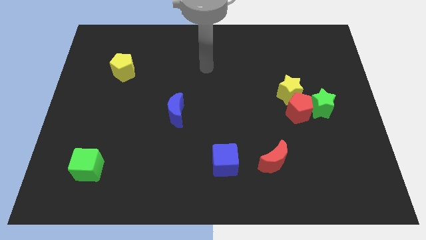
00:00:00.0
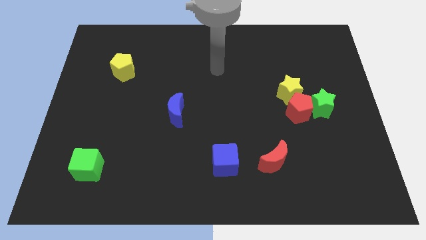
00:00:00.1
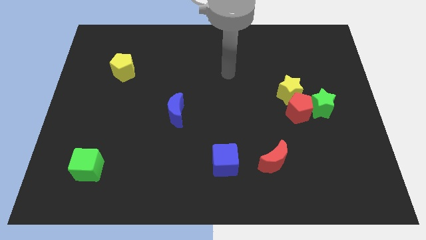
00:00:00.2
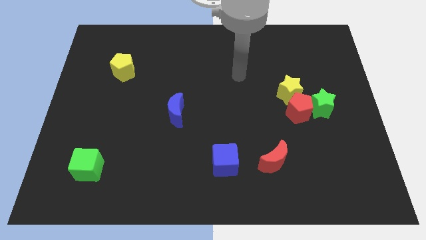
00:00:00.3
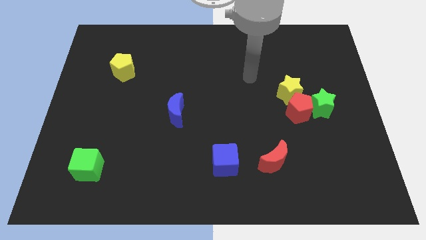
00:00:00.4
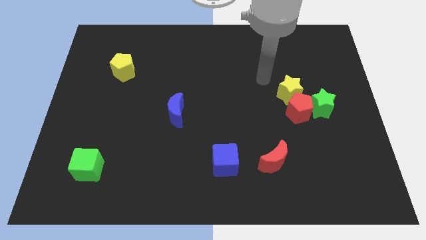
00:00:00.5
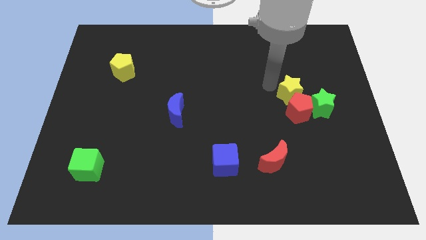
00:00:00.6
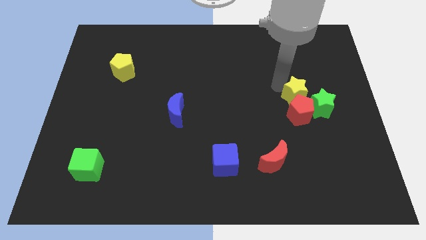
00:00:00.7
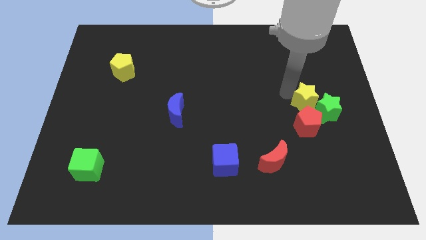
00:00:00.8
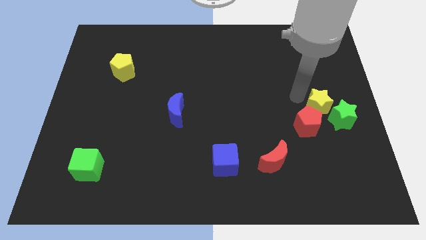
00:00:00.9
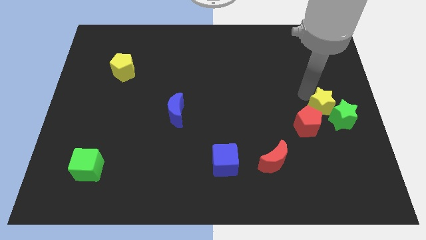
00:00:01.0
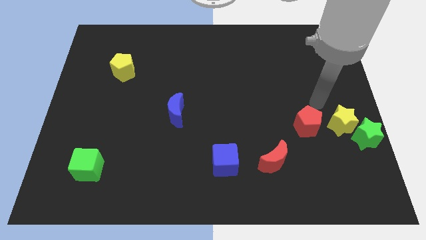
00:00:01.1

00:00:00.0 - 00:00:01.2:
pull the red pentagon apart from the green star and yellow star

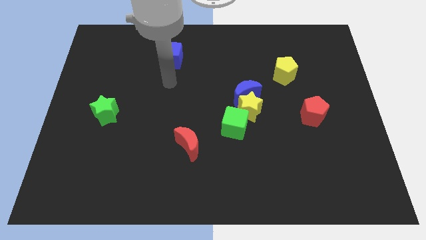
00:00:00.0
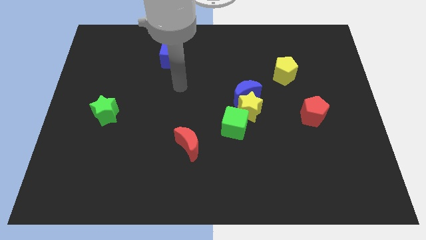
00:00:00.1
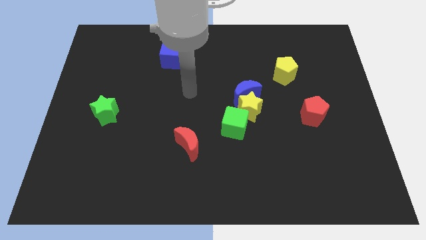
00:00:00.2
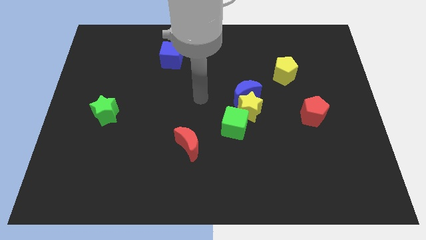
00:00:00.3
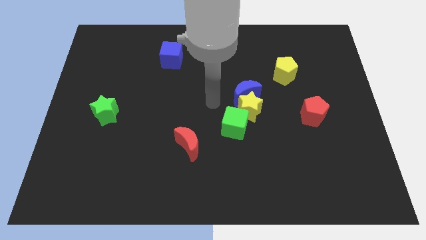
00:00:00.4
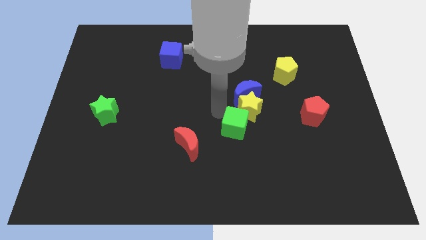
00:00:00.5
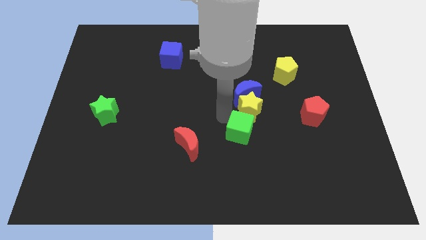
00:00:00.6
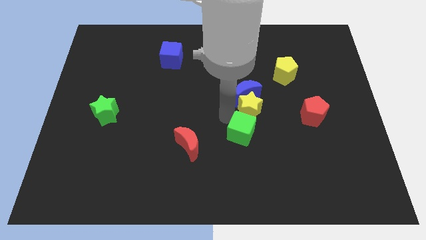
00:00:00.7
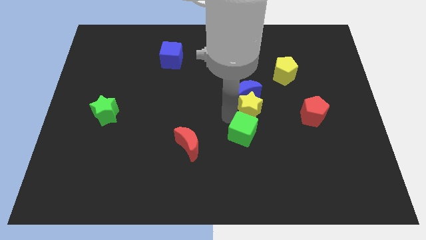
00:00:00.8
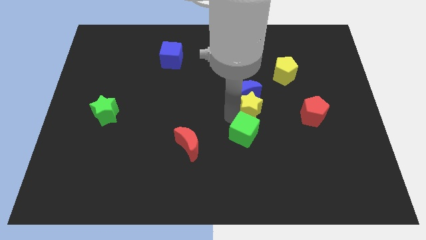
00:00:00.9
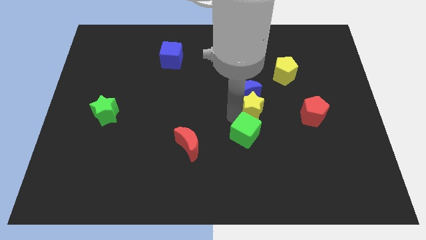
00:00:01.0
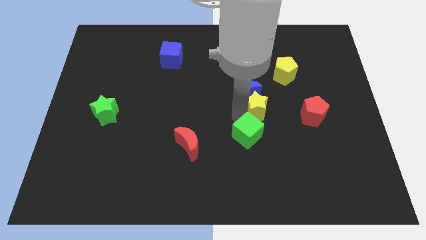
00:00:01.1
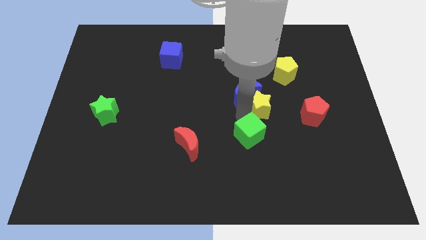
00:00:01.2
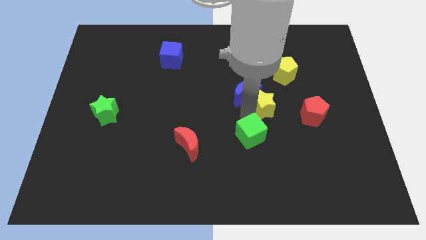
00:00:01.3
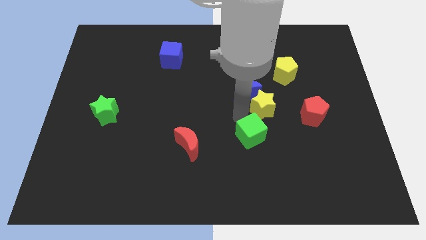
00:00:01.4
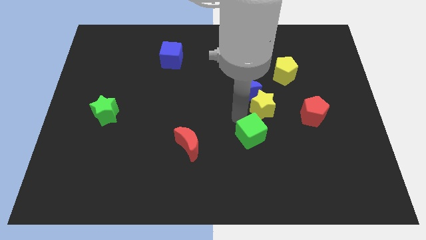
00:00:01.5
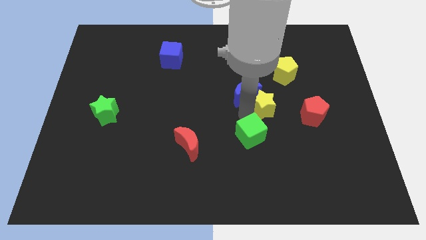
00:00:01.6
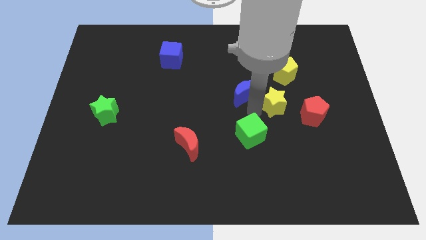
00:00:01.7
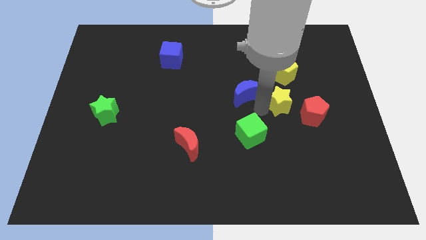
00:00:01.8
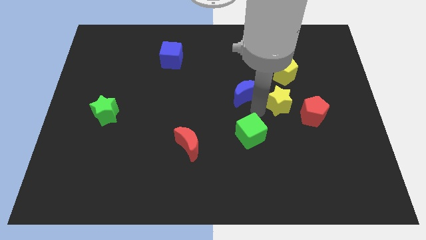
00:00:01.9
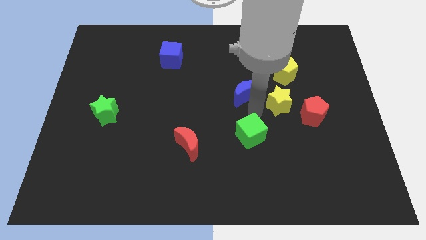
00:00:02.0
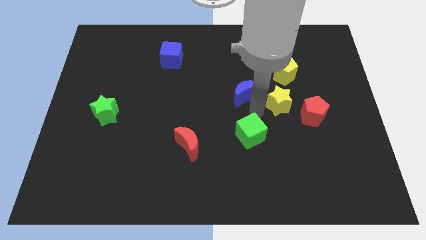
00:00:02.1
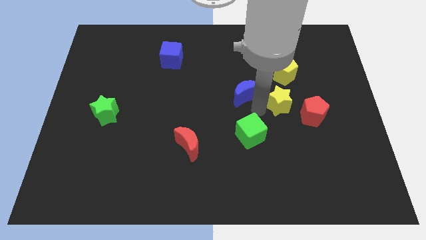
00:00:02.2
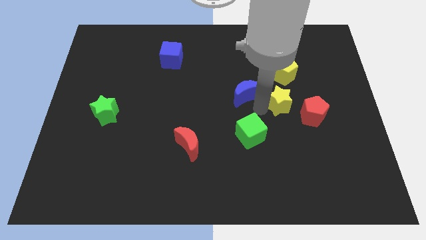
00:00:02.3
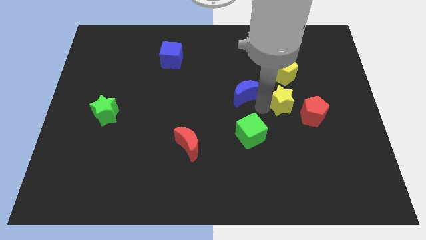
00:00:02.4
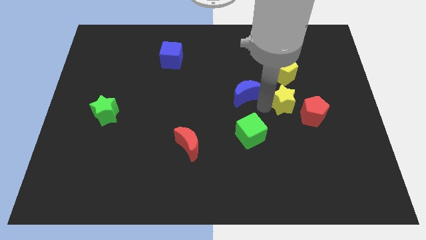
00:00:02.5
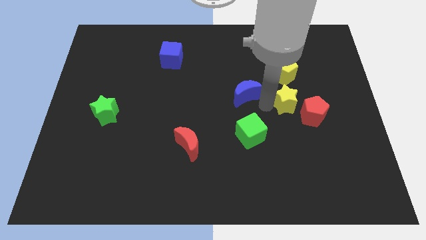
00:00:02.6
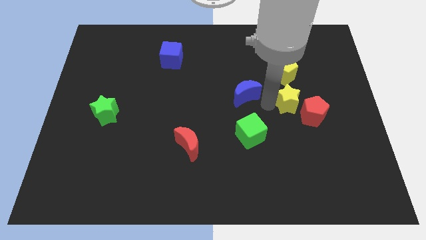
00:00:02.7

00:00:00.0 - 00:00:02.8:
pull the yellow star apart from the blue moon and green cube

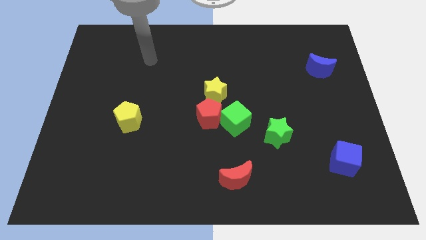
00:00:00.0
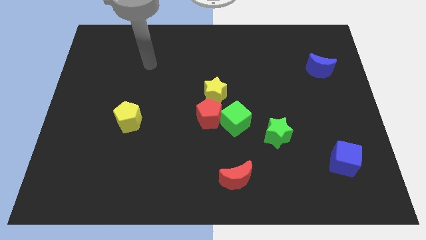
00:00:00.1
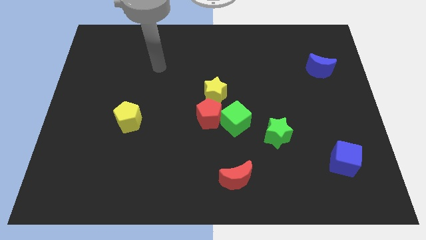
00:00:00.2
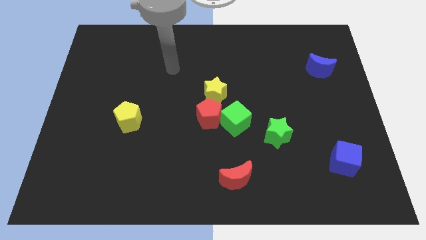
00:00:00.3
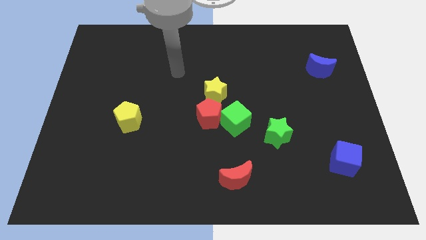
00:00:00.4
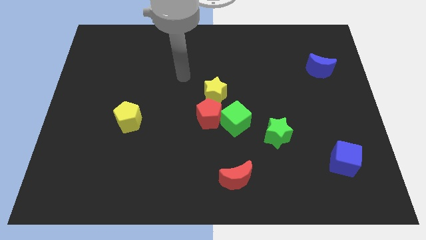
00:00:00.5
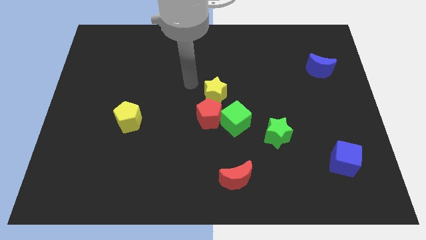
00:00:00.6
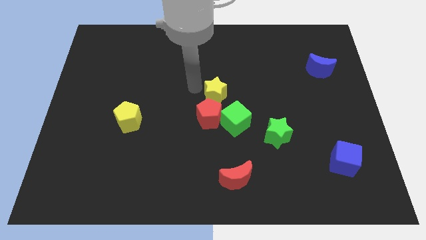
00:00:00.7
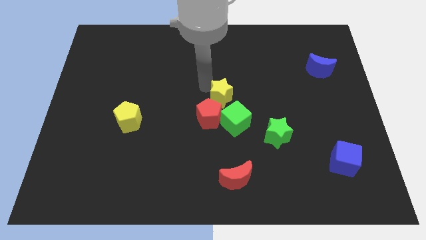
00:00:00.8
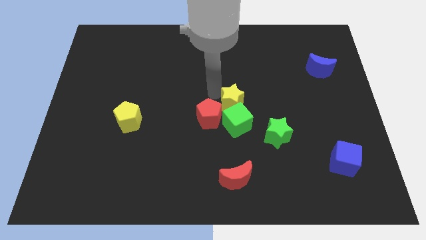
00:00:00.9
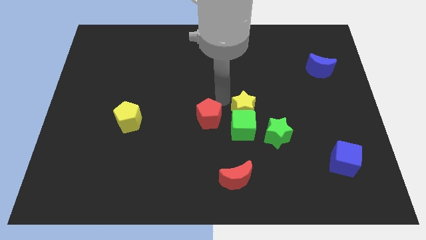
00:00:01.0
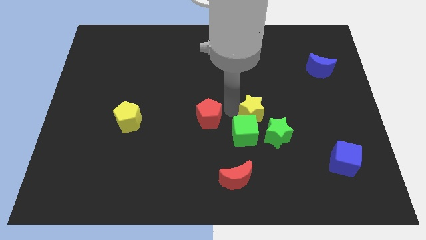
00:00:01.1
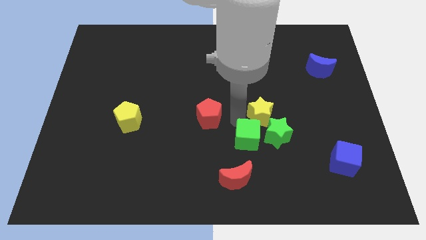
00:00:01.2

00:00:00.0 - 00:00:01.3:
pull the red pentagon apart from the green cube and yellow star

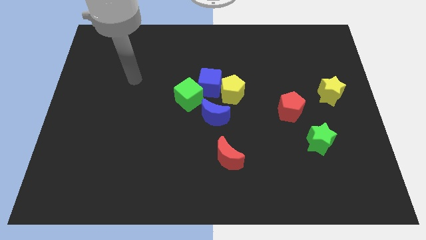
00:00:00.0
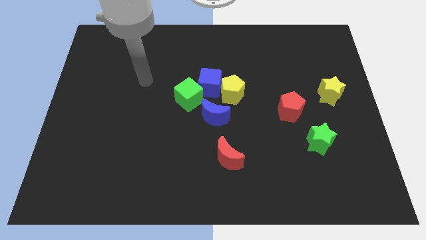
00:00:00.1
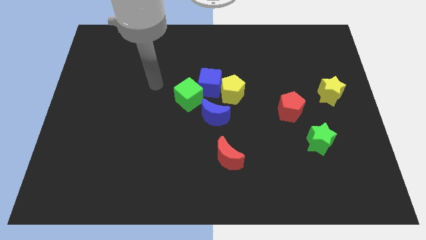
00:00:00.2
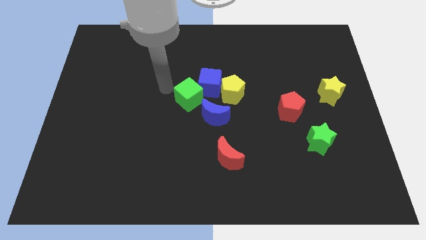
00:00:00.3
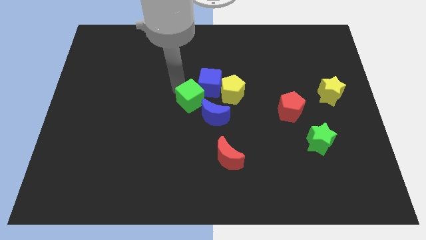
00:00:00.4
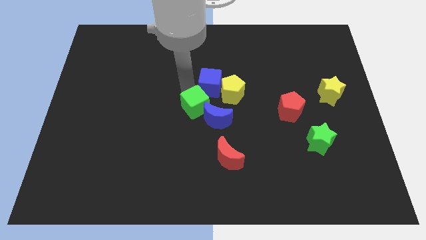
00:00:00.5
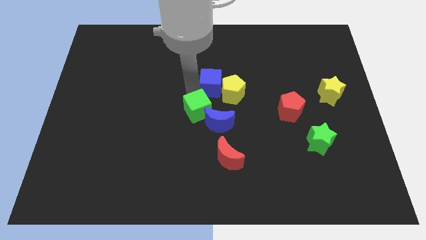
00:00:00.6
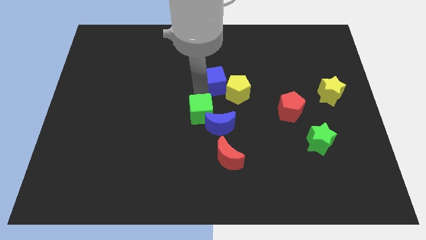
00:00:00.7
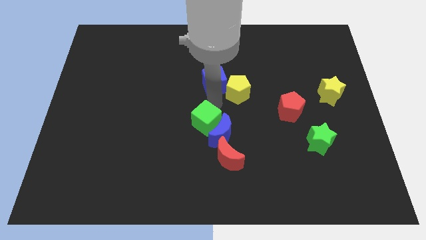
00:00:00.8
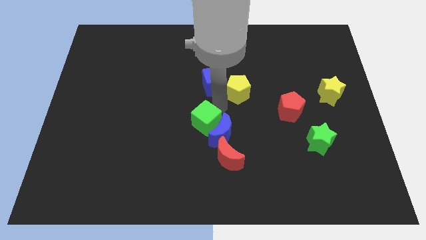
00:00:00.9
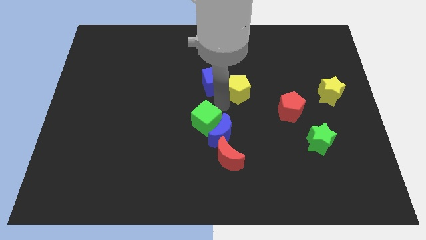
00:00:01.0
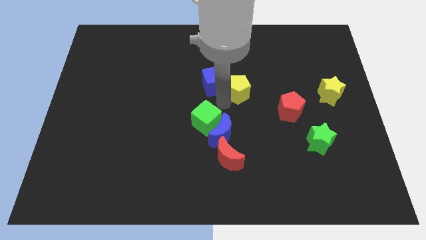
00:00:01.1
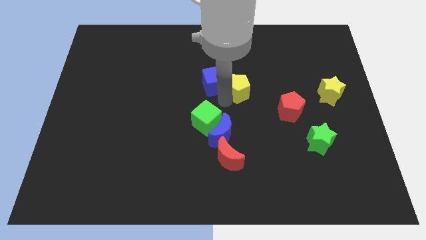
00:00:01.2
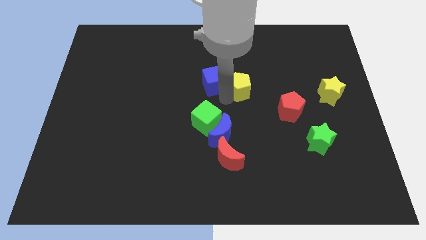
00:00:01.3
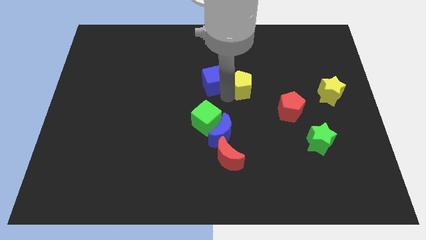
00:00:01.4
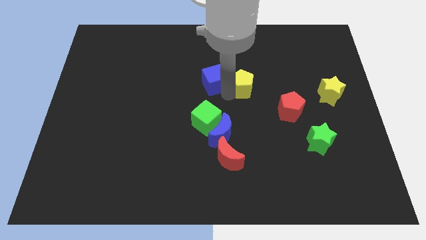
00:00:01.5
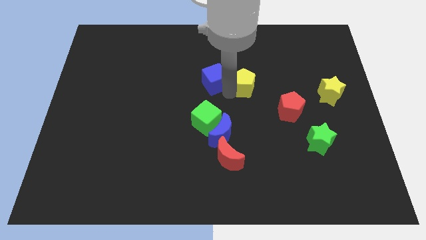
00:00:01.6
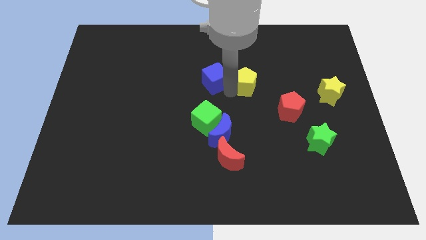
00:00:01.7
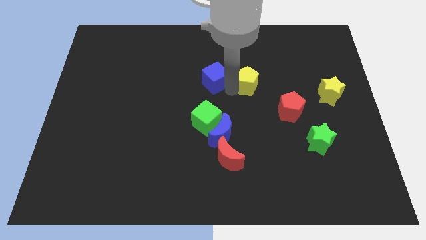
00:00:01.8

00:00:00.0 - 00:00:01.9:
pull the yellow pentagon apart from the blue cube and blue moon

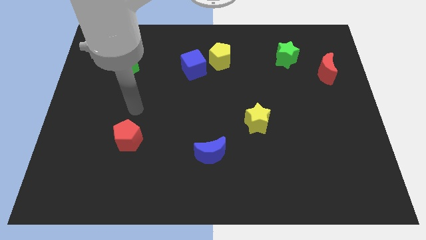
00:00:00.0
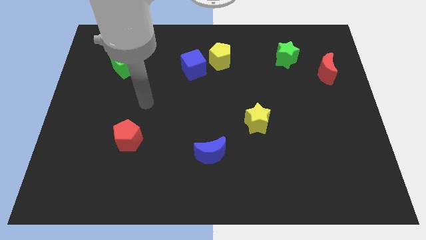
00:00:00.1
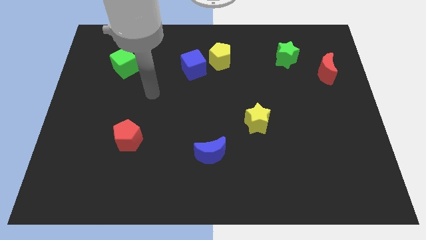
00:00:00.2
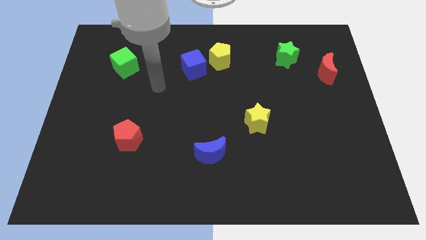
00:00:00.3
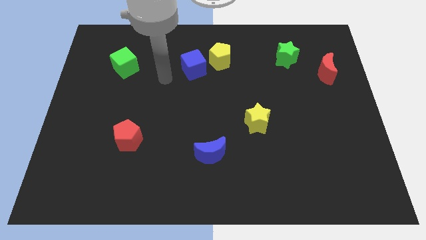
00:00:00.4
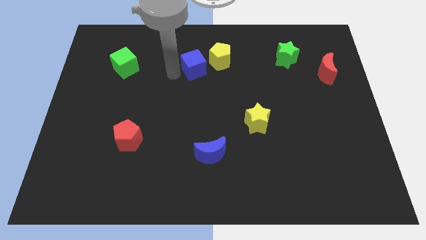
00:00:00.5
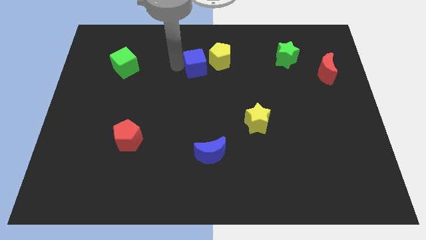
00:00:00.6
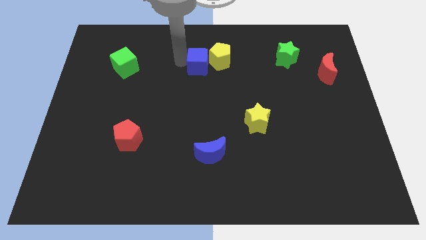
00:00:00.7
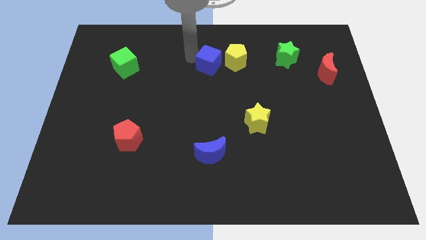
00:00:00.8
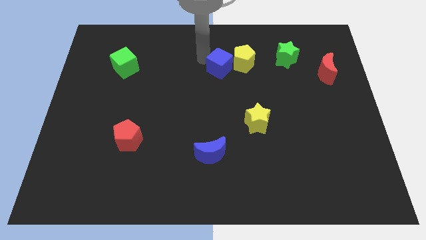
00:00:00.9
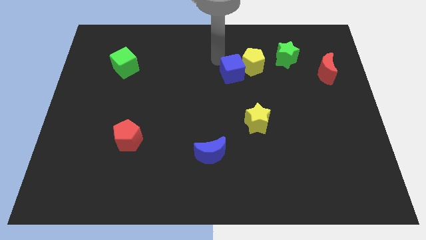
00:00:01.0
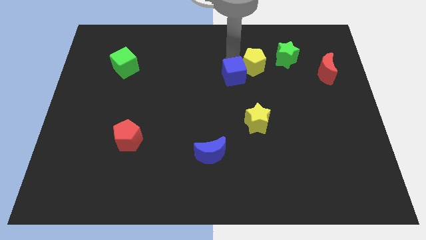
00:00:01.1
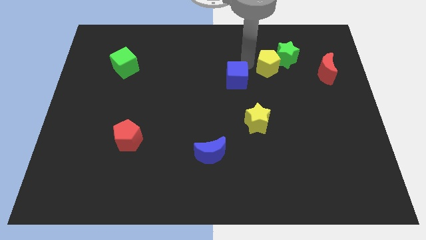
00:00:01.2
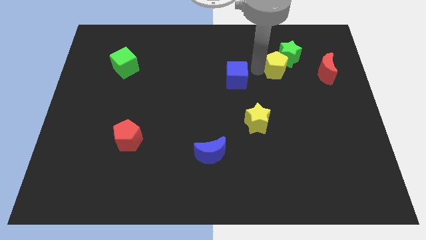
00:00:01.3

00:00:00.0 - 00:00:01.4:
separate the blue cube from the yellow pentagon

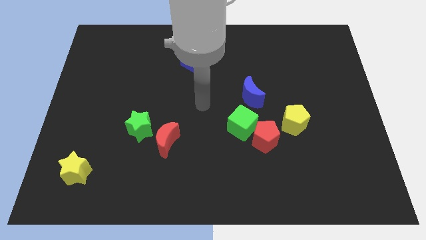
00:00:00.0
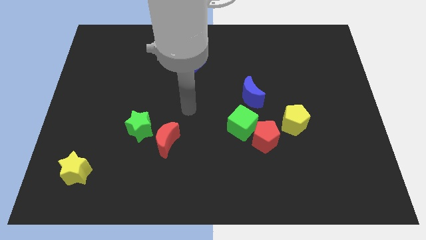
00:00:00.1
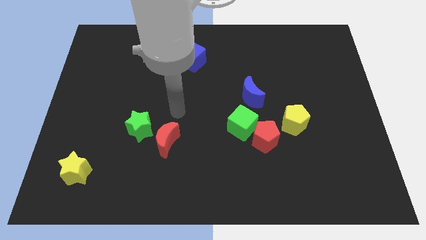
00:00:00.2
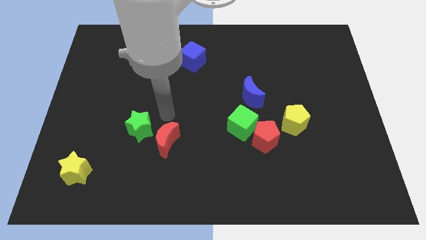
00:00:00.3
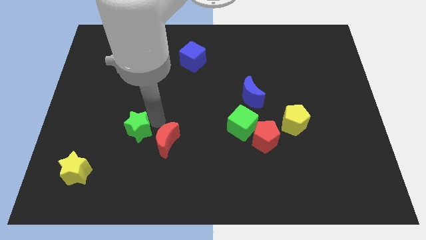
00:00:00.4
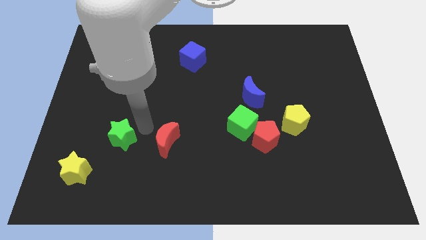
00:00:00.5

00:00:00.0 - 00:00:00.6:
separate the red moon from the green star
